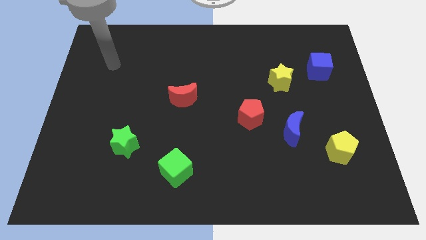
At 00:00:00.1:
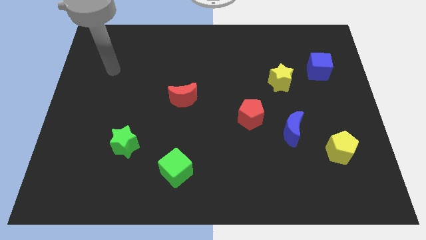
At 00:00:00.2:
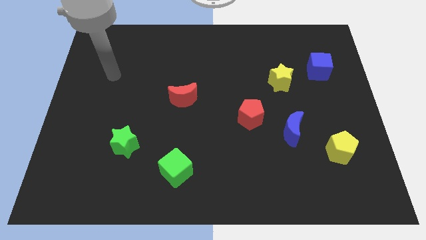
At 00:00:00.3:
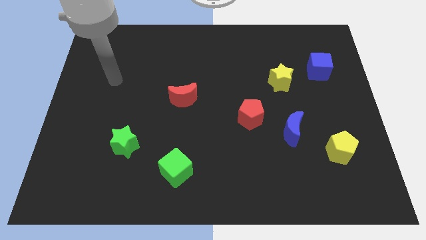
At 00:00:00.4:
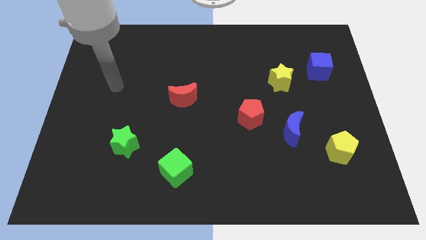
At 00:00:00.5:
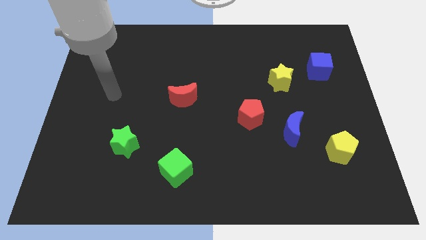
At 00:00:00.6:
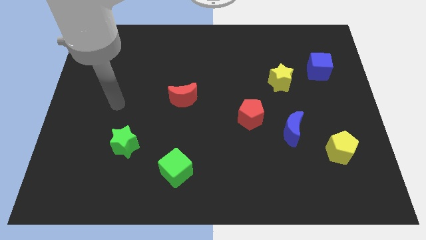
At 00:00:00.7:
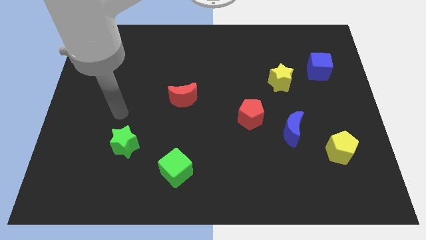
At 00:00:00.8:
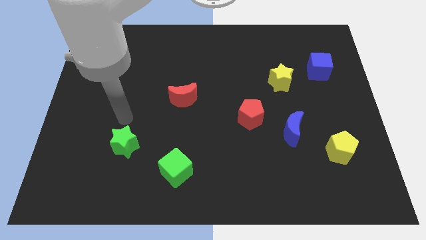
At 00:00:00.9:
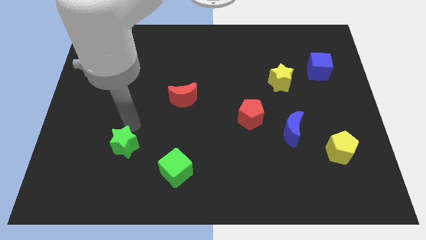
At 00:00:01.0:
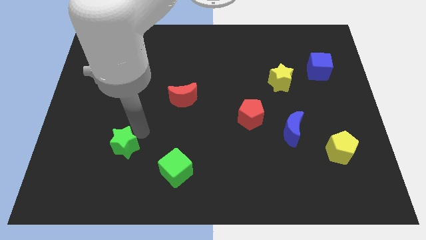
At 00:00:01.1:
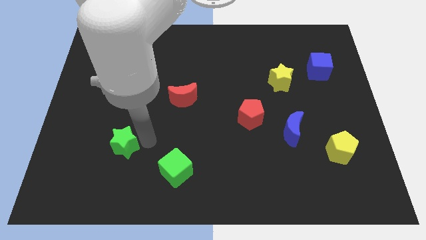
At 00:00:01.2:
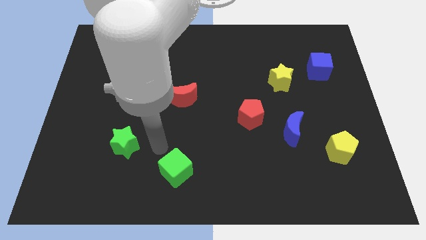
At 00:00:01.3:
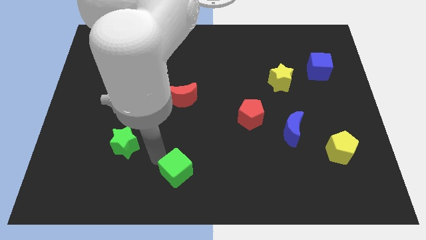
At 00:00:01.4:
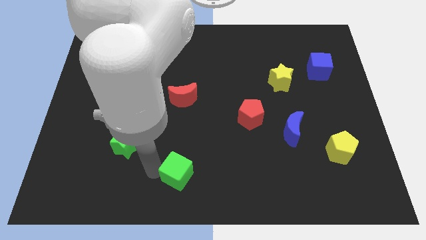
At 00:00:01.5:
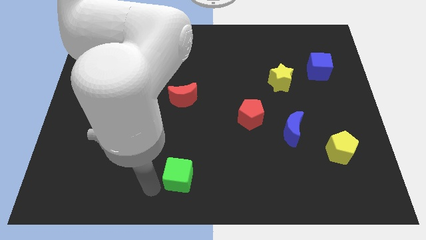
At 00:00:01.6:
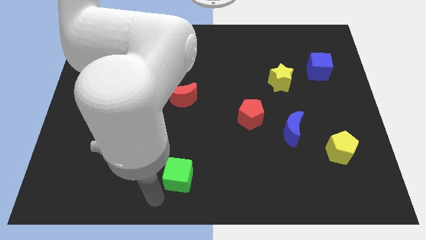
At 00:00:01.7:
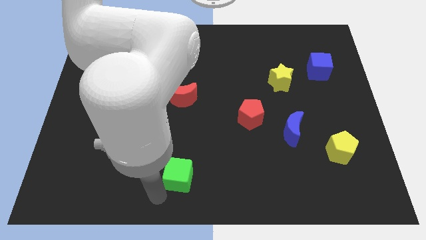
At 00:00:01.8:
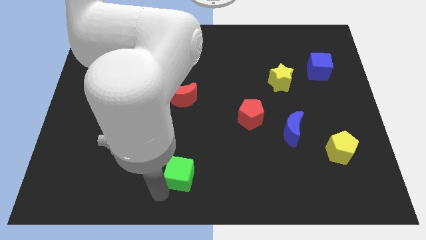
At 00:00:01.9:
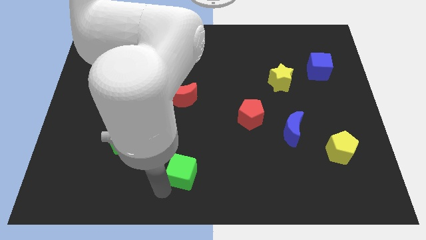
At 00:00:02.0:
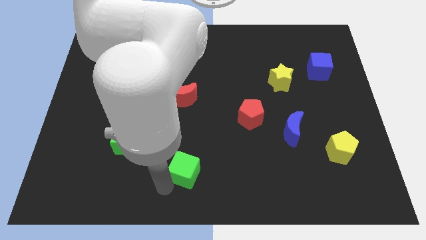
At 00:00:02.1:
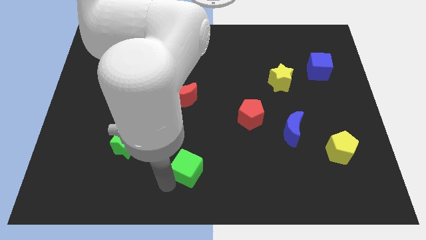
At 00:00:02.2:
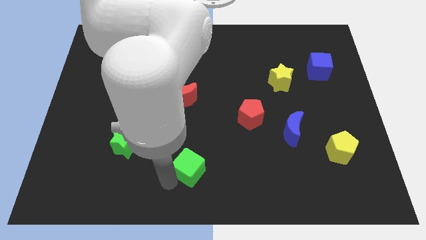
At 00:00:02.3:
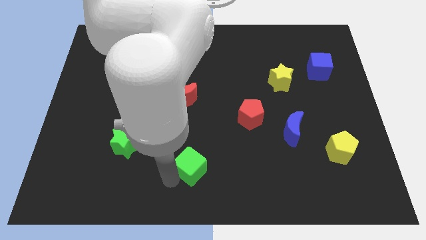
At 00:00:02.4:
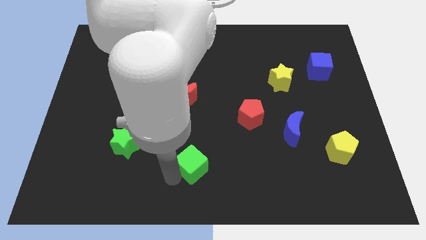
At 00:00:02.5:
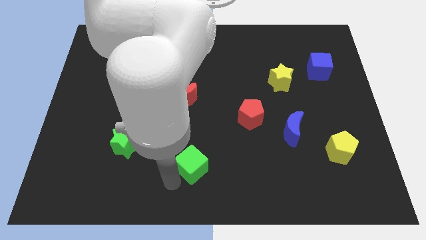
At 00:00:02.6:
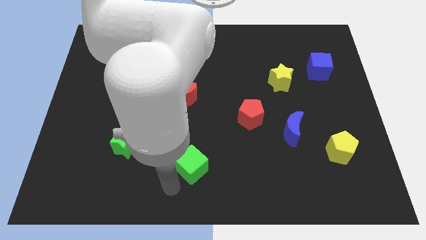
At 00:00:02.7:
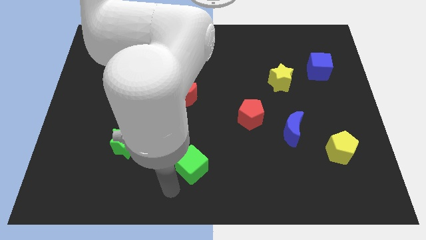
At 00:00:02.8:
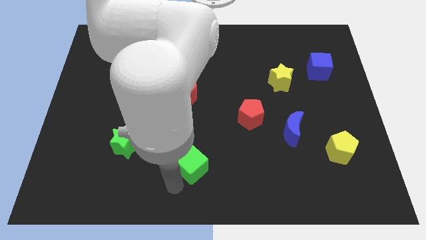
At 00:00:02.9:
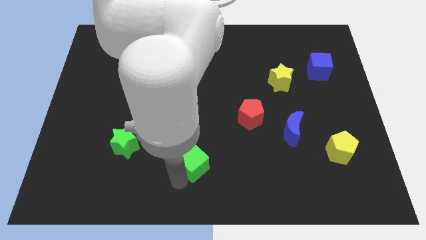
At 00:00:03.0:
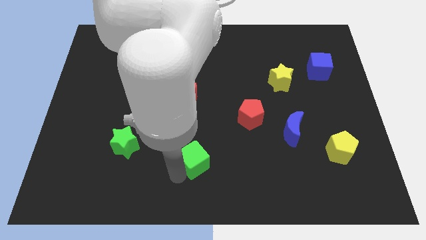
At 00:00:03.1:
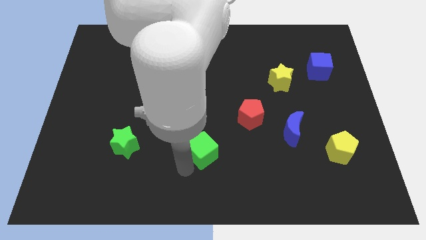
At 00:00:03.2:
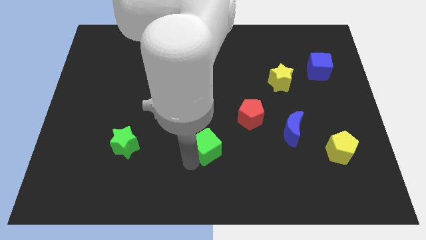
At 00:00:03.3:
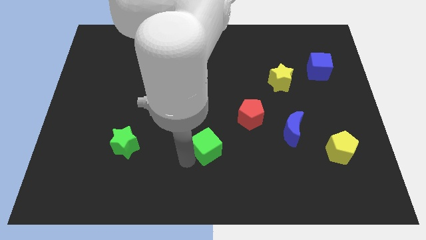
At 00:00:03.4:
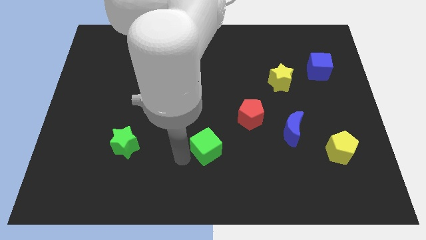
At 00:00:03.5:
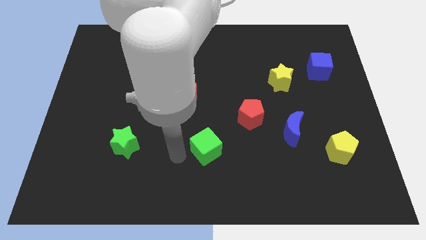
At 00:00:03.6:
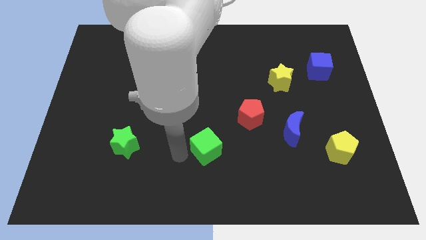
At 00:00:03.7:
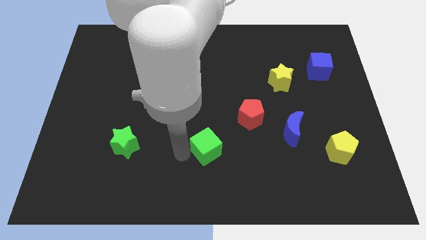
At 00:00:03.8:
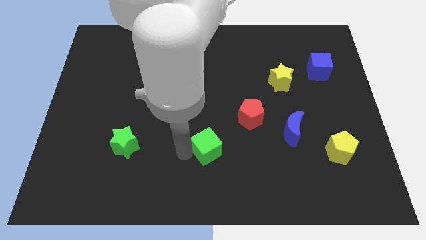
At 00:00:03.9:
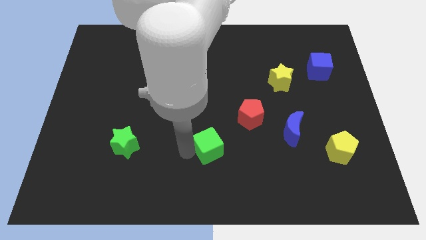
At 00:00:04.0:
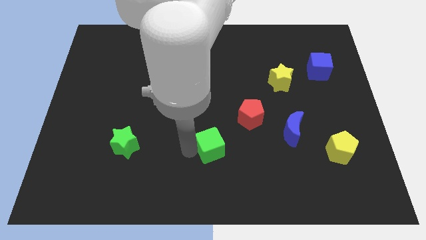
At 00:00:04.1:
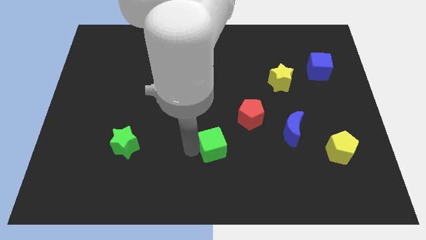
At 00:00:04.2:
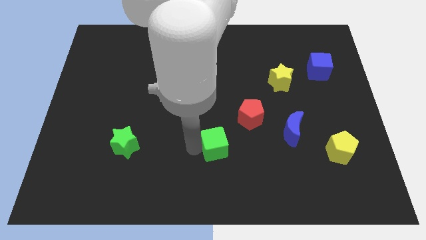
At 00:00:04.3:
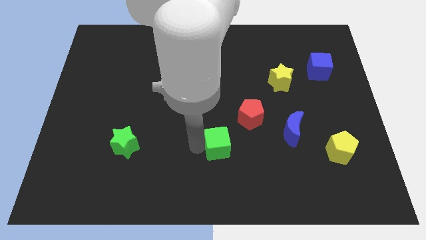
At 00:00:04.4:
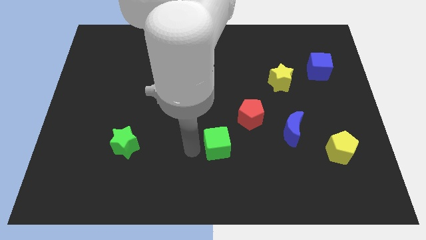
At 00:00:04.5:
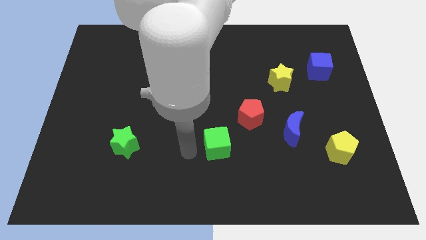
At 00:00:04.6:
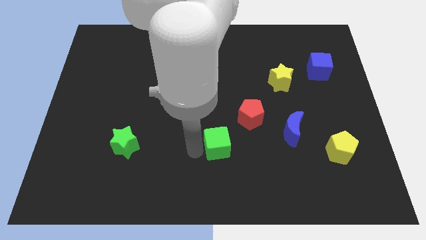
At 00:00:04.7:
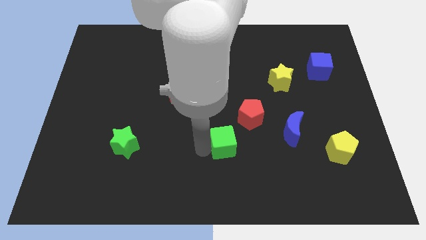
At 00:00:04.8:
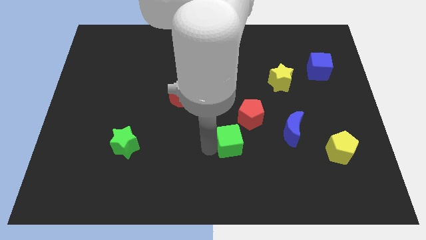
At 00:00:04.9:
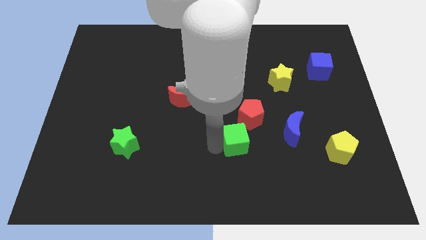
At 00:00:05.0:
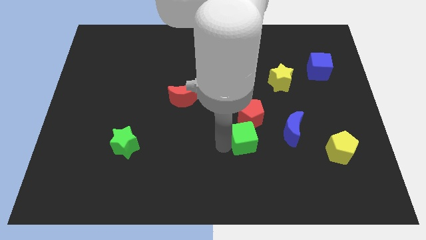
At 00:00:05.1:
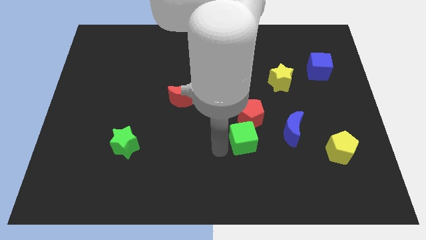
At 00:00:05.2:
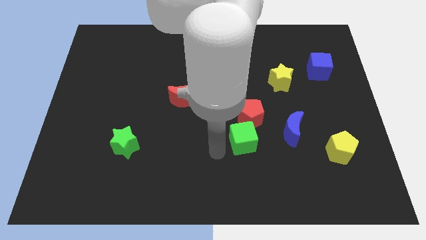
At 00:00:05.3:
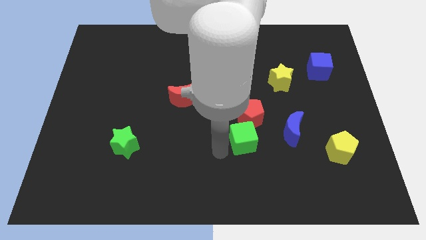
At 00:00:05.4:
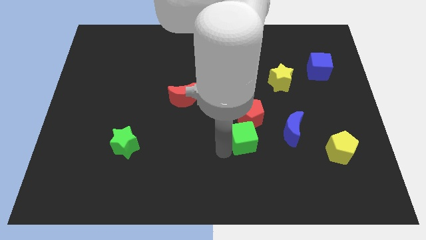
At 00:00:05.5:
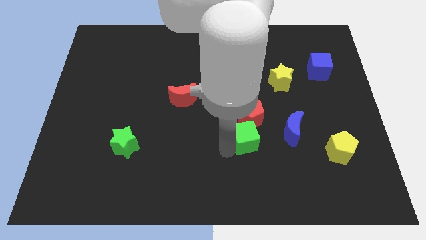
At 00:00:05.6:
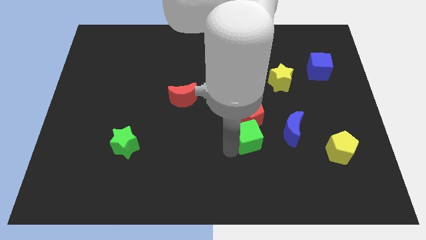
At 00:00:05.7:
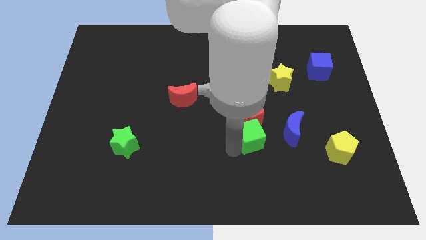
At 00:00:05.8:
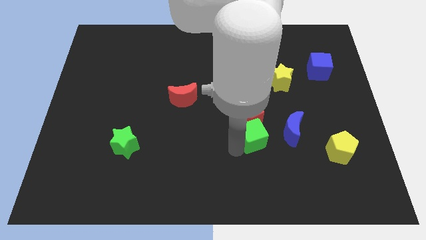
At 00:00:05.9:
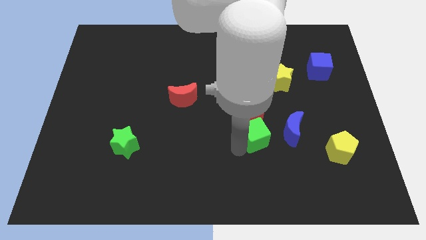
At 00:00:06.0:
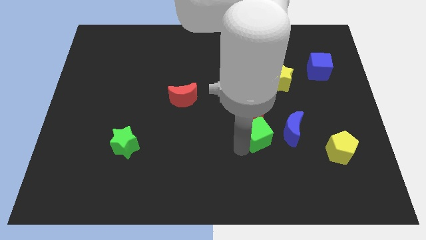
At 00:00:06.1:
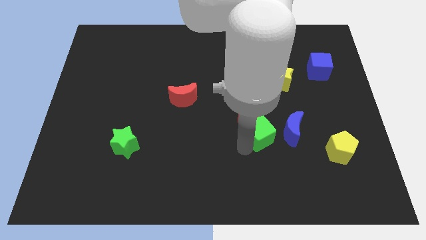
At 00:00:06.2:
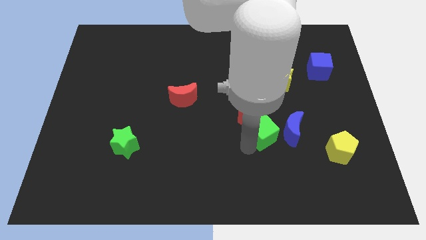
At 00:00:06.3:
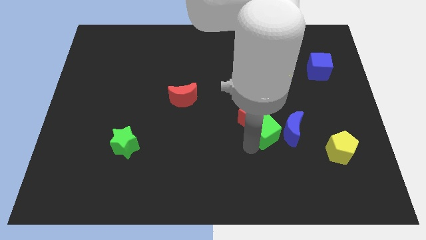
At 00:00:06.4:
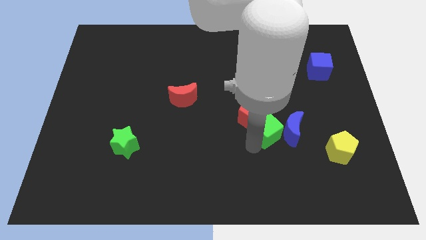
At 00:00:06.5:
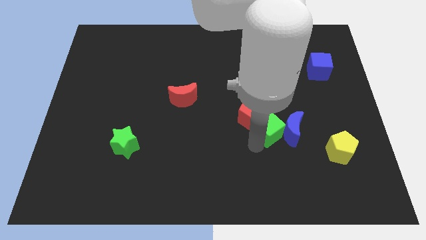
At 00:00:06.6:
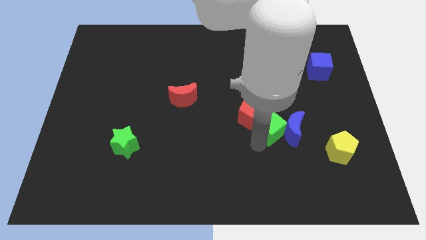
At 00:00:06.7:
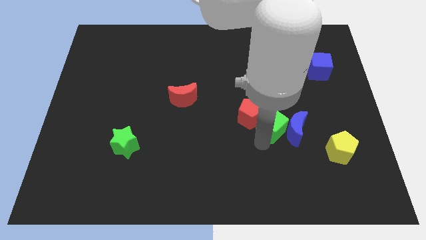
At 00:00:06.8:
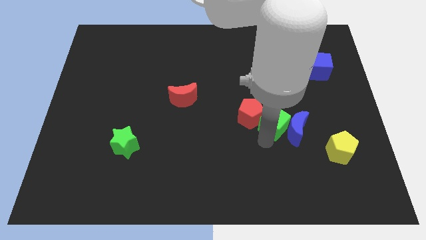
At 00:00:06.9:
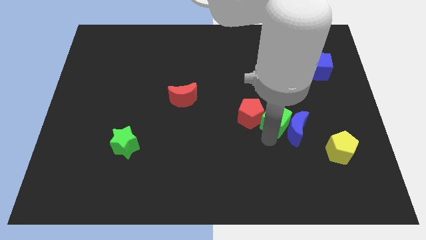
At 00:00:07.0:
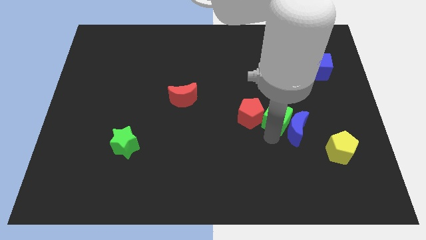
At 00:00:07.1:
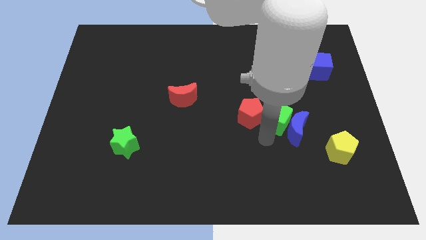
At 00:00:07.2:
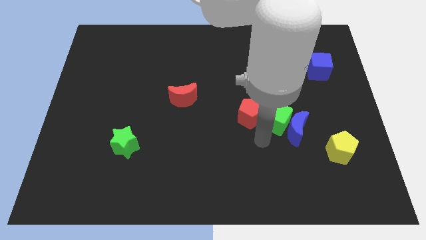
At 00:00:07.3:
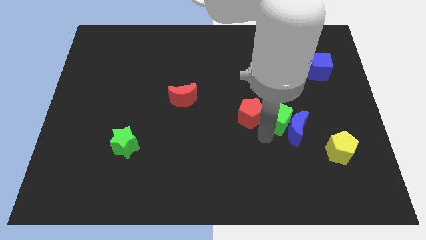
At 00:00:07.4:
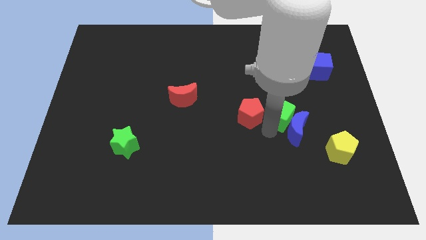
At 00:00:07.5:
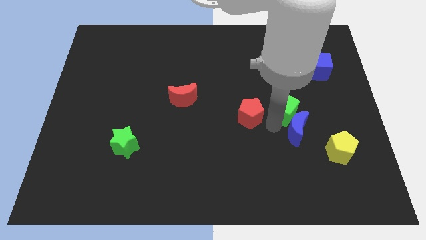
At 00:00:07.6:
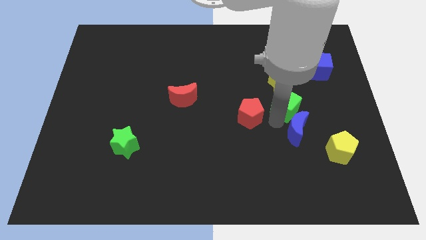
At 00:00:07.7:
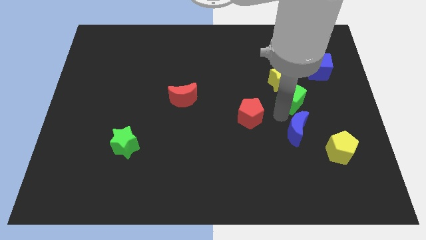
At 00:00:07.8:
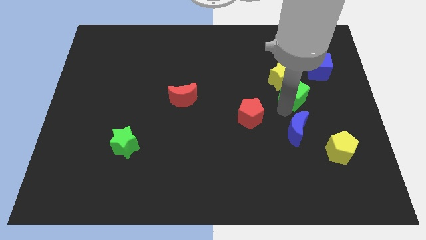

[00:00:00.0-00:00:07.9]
put the green cube diagonally down and to the left of the blue cube
